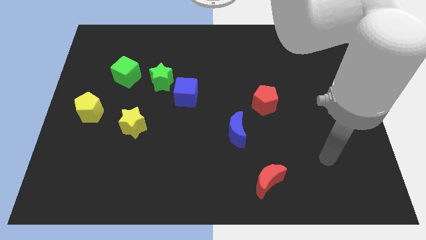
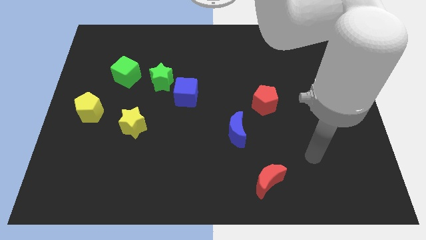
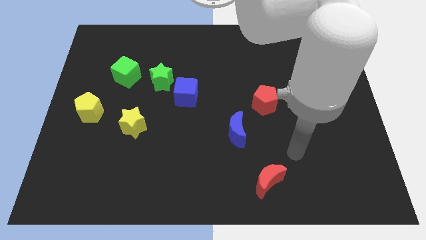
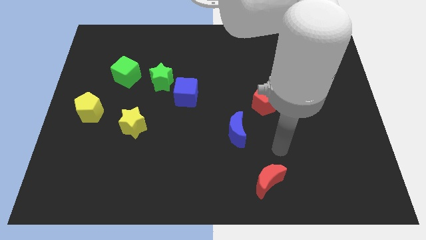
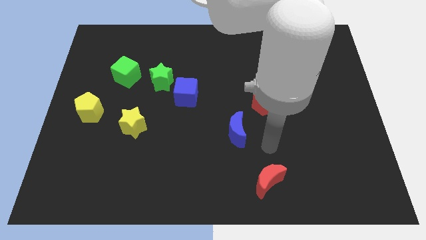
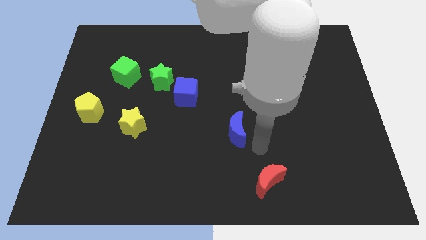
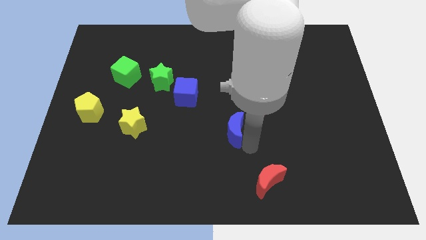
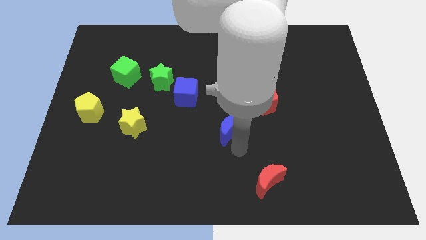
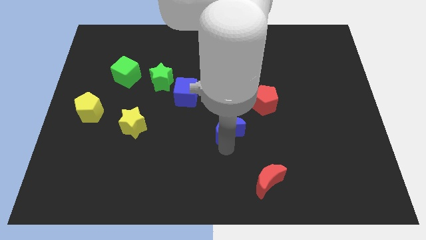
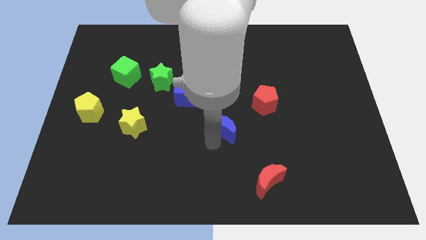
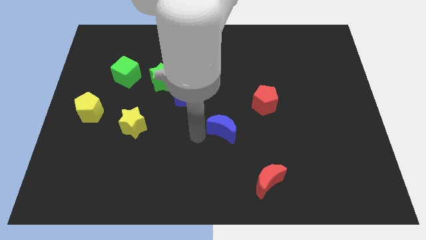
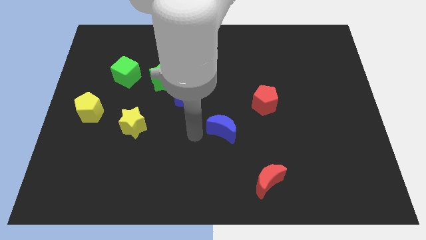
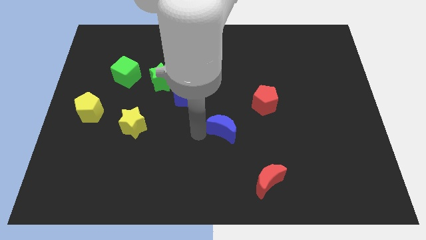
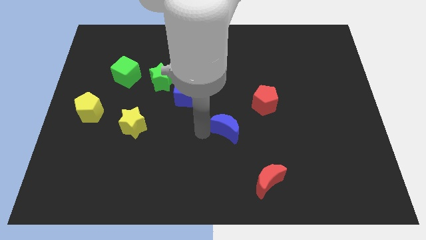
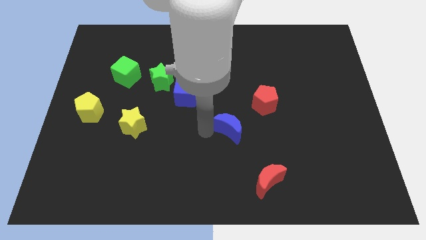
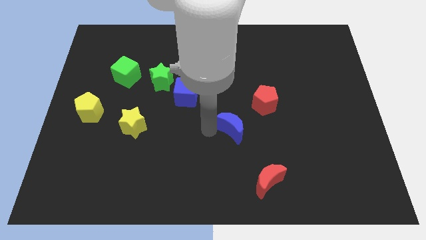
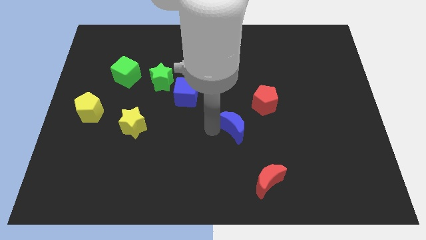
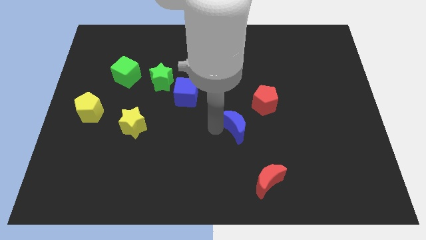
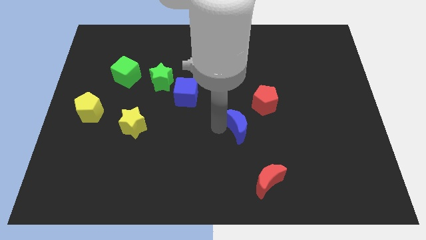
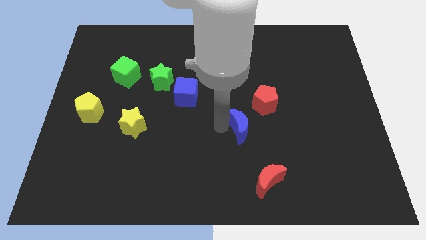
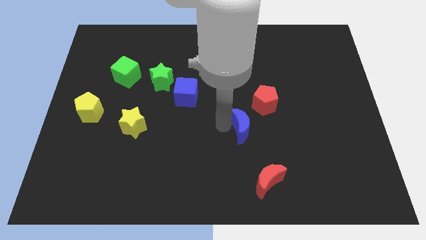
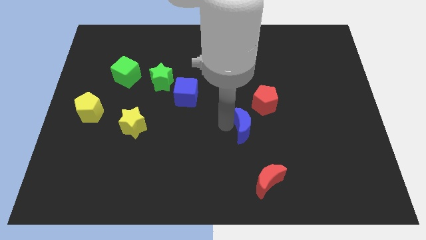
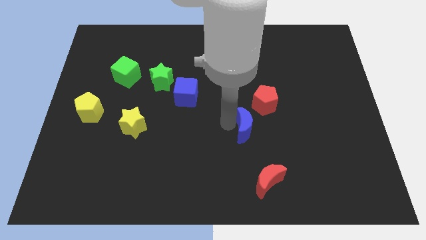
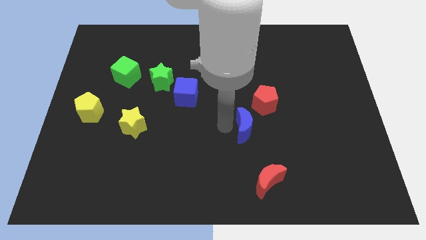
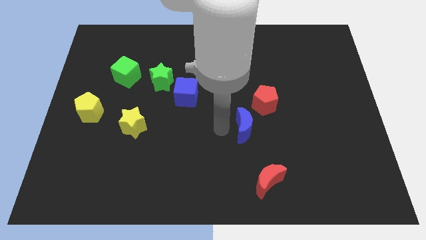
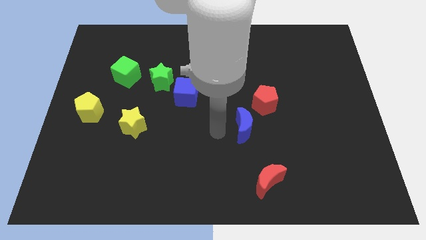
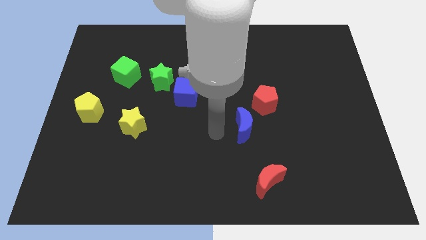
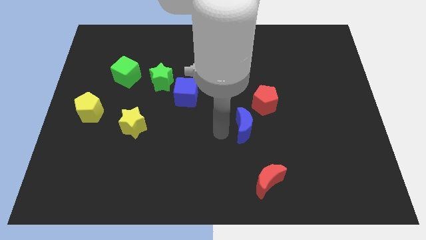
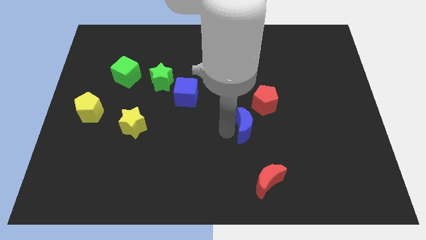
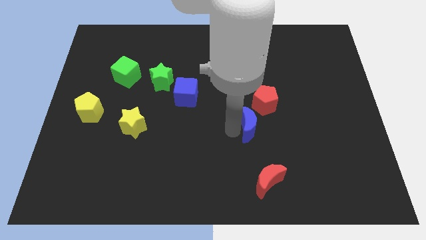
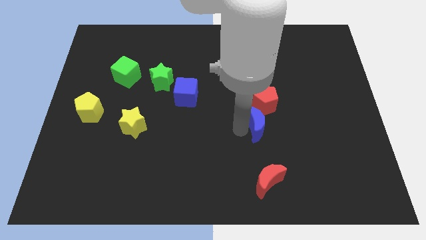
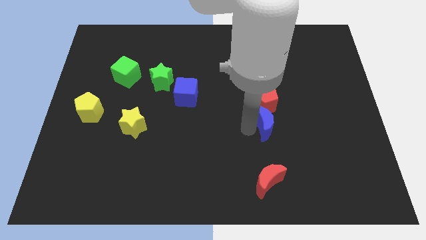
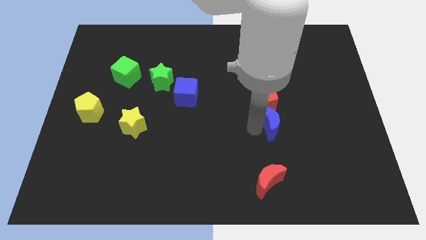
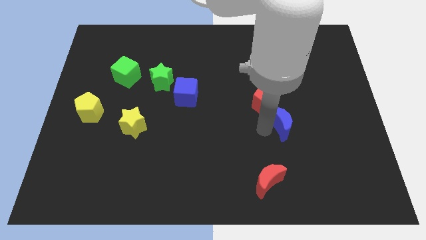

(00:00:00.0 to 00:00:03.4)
push the blue moon up and right a bit

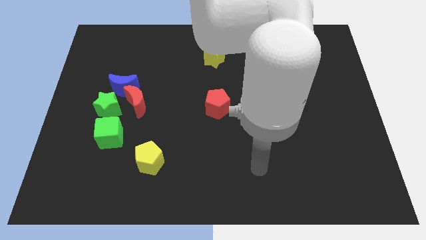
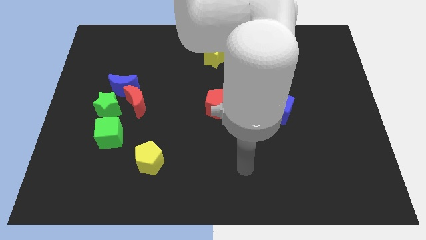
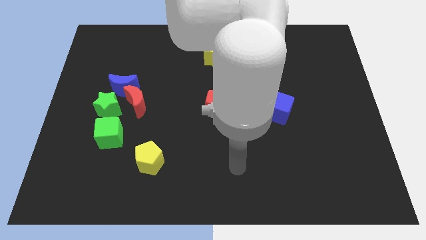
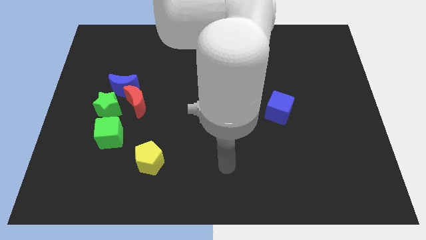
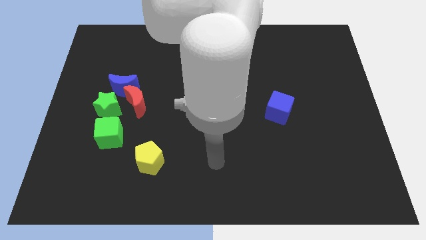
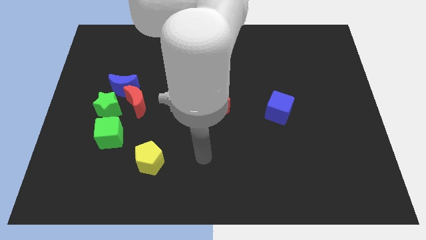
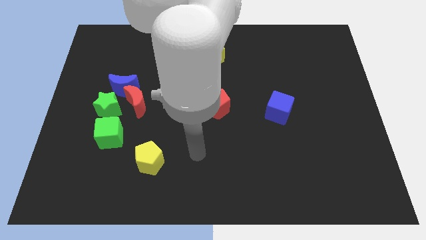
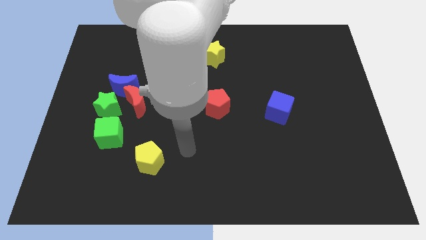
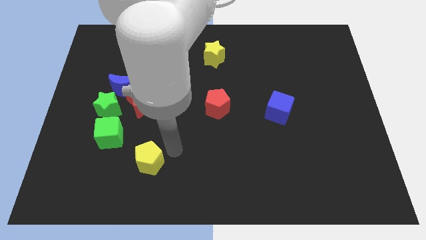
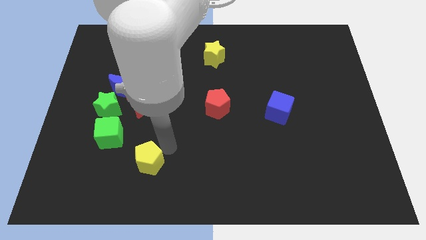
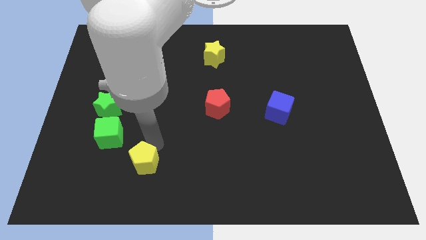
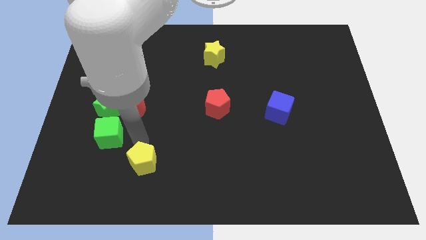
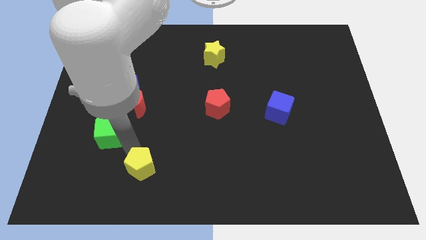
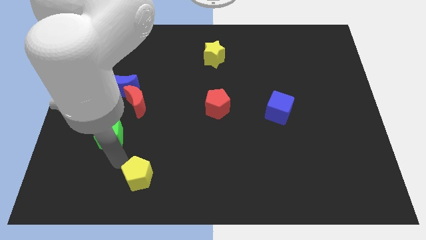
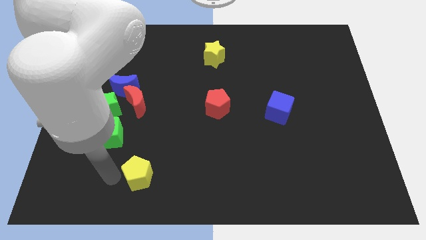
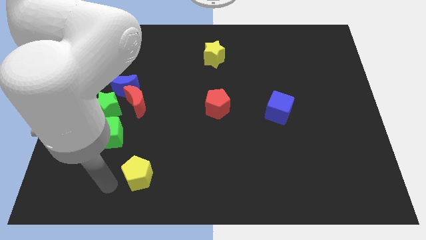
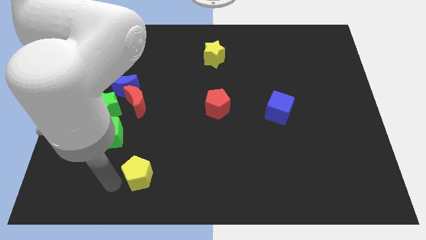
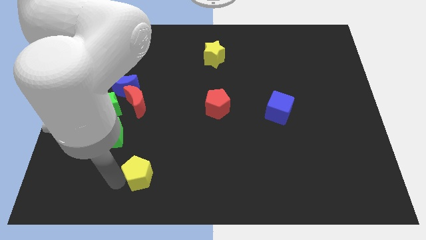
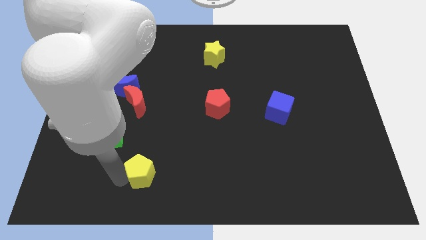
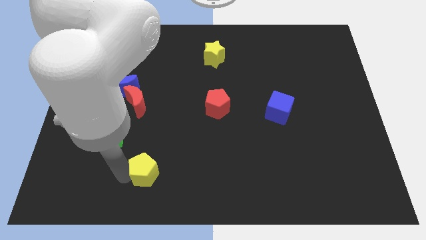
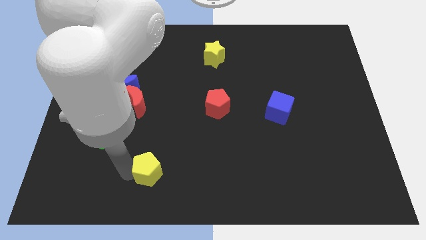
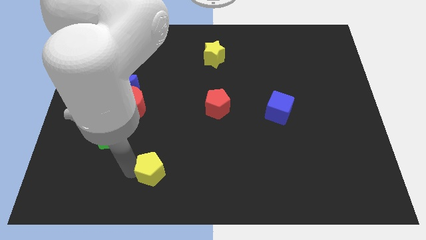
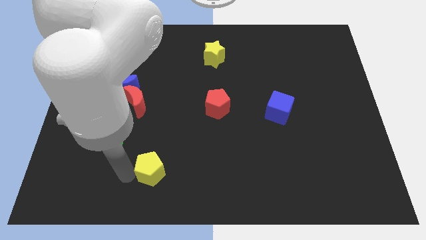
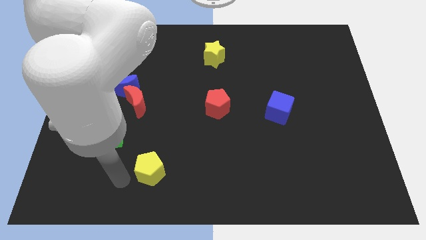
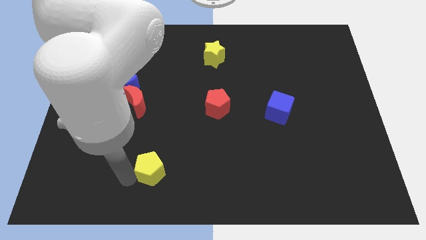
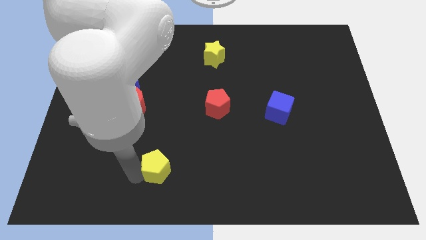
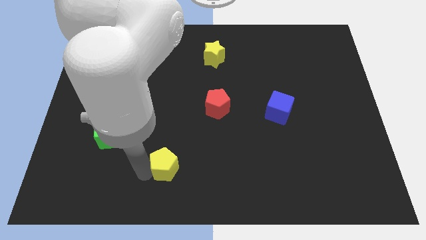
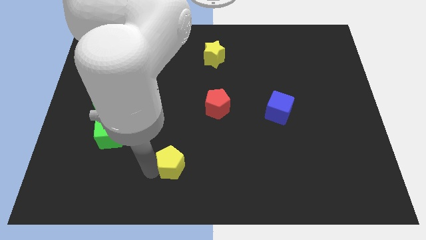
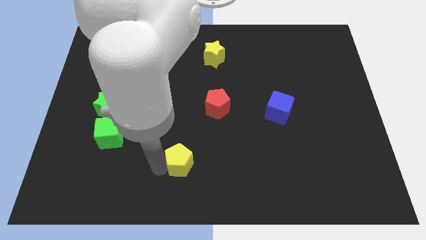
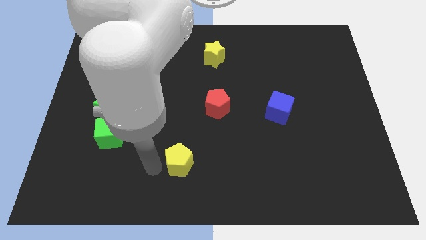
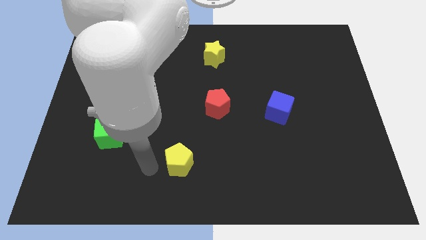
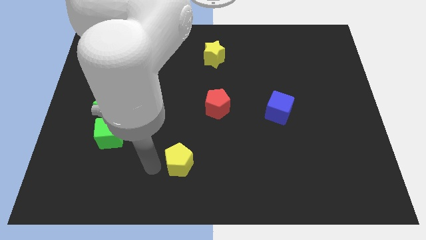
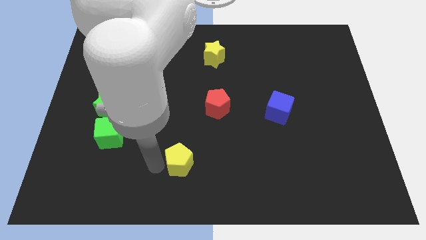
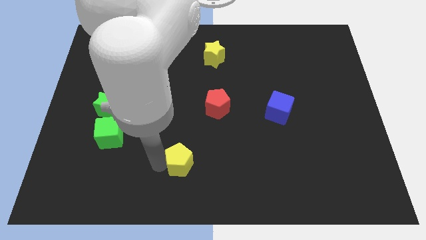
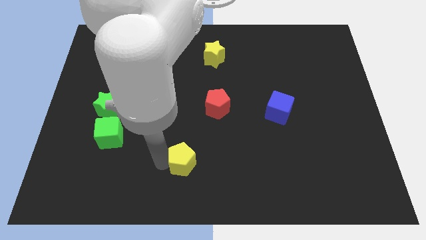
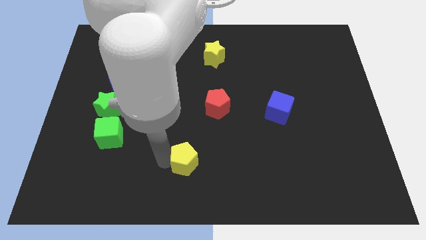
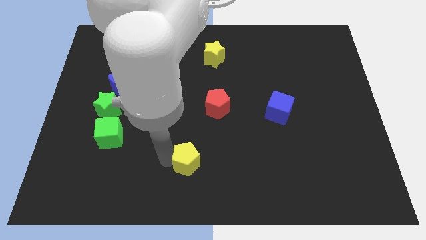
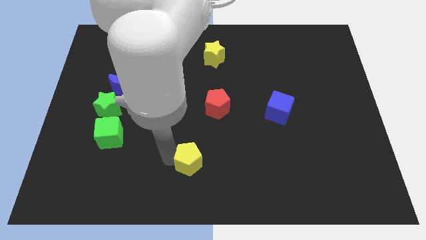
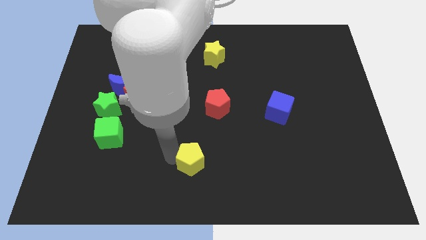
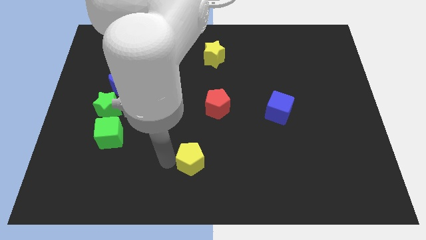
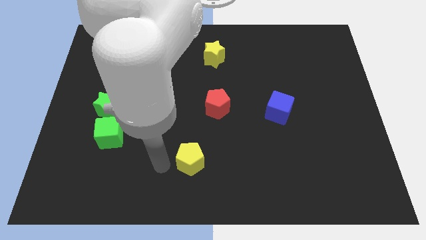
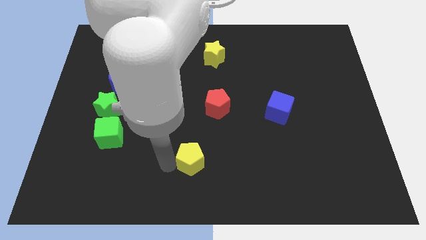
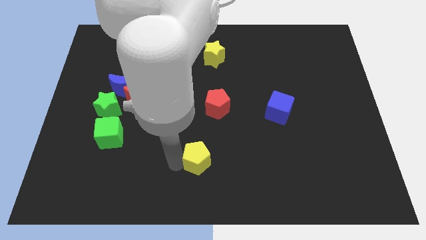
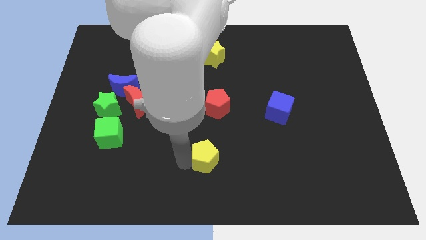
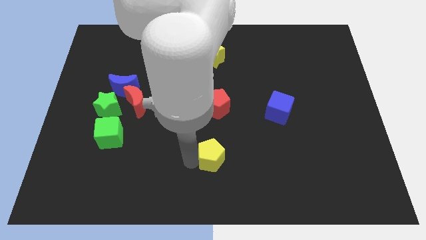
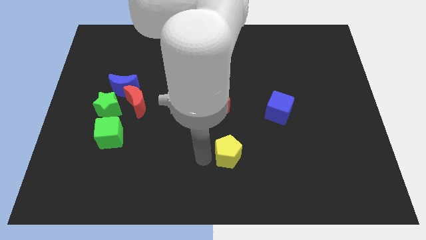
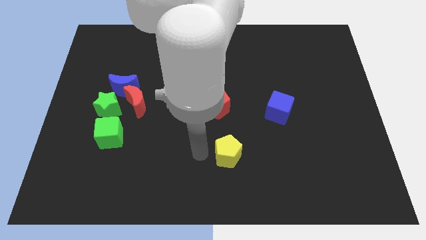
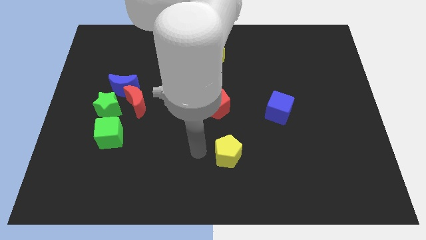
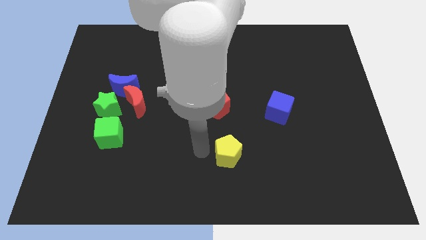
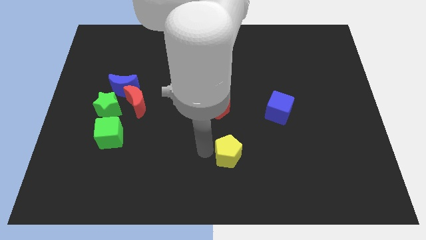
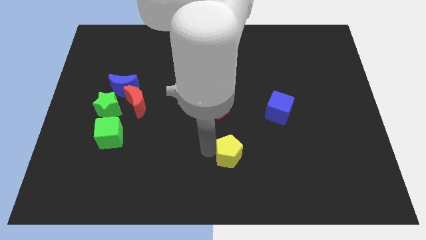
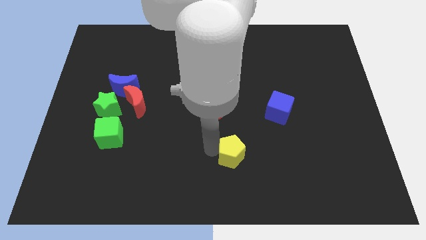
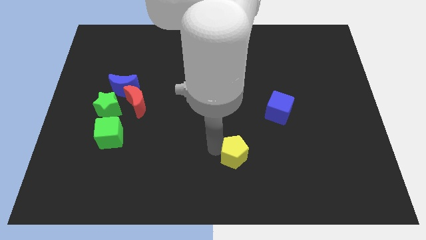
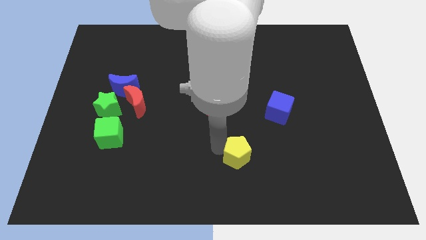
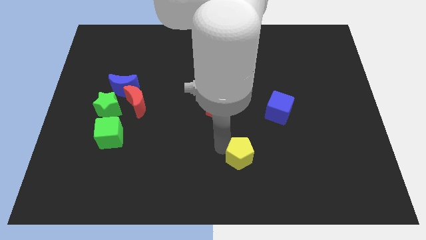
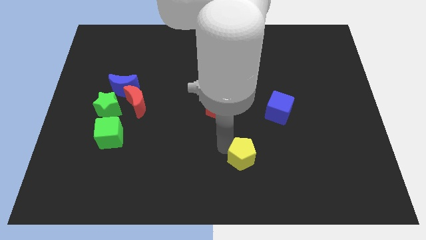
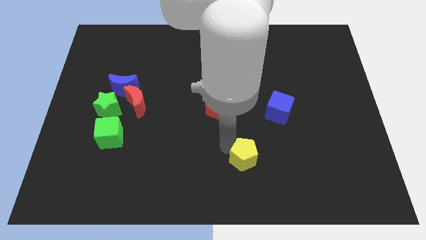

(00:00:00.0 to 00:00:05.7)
slide the yellow pentagon to the right
